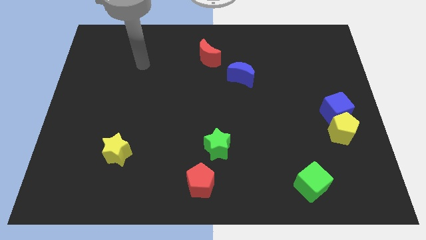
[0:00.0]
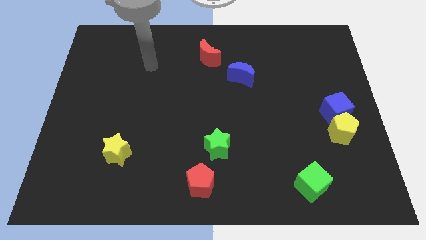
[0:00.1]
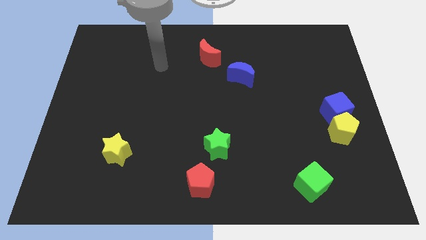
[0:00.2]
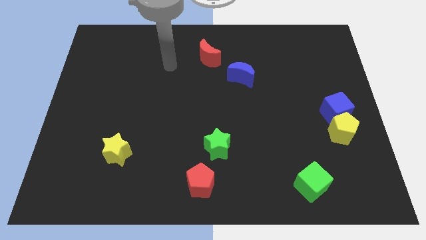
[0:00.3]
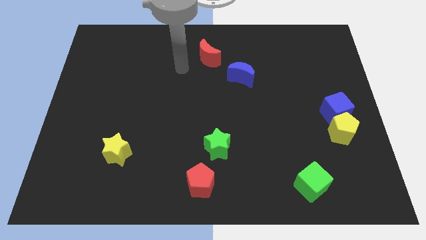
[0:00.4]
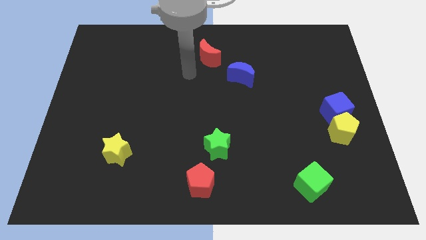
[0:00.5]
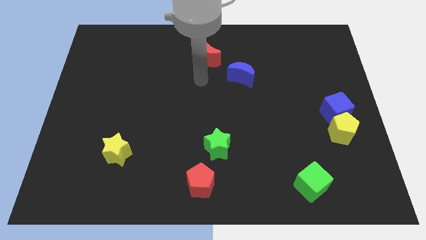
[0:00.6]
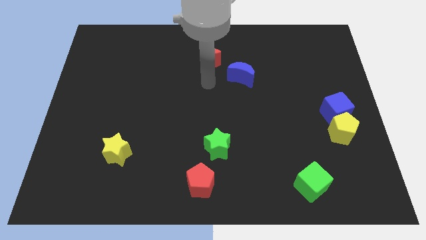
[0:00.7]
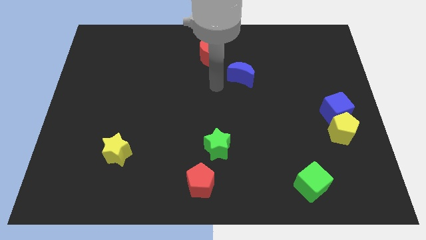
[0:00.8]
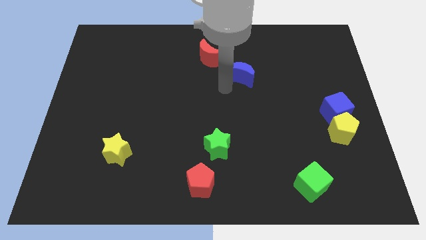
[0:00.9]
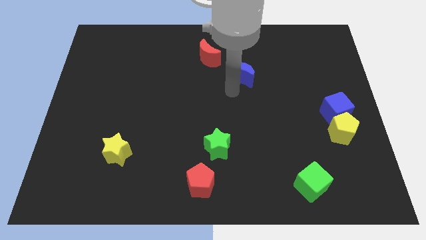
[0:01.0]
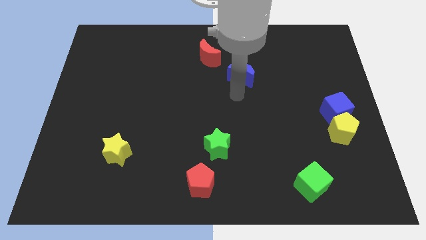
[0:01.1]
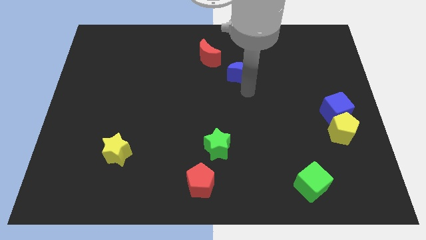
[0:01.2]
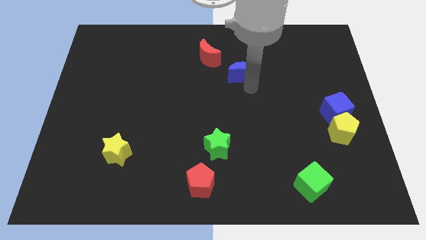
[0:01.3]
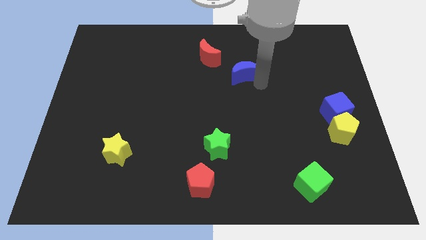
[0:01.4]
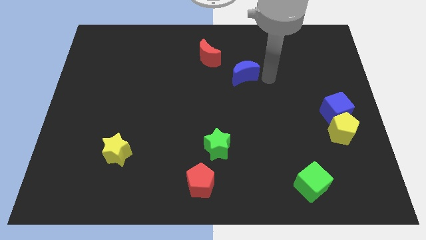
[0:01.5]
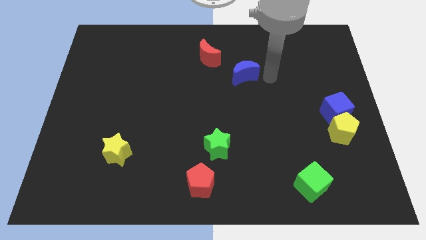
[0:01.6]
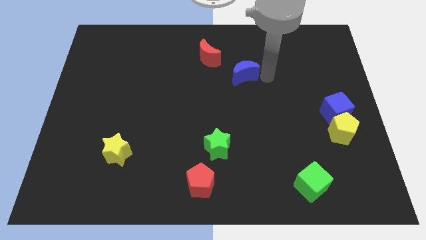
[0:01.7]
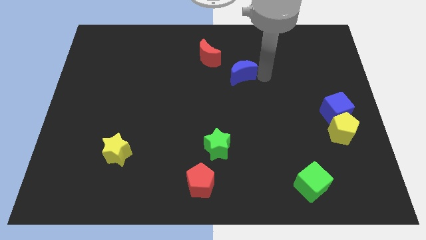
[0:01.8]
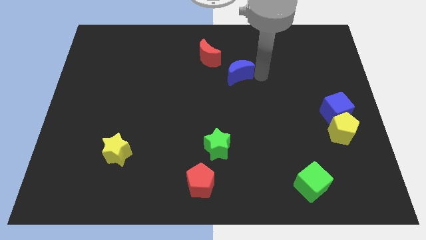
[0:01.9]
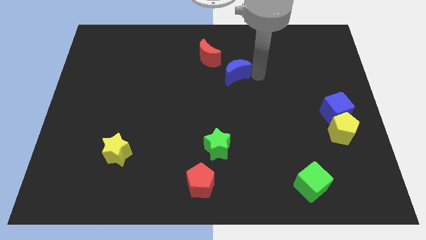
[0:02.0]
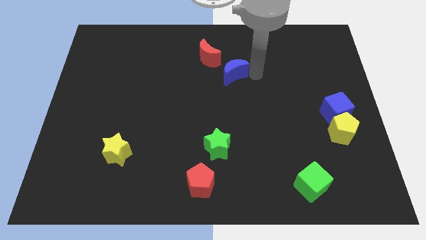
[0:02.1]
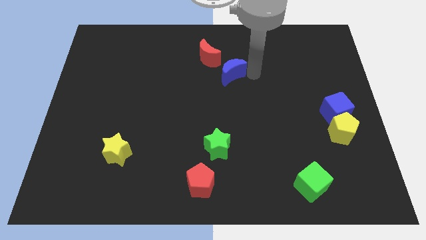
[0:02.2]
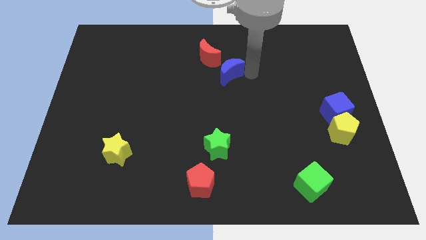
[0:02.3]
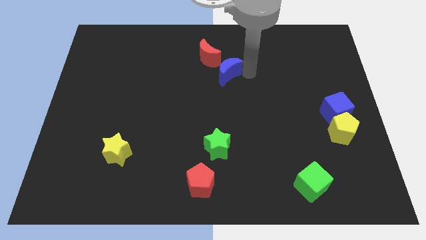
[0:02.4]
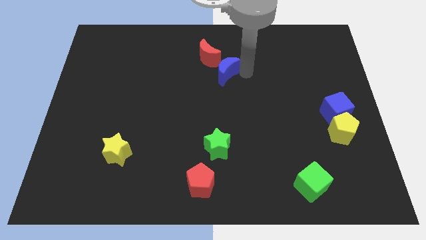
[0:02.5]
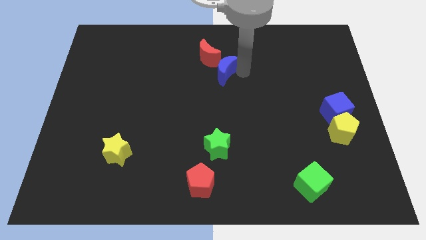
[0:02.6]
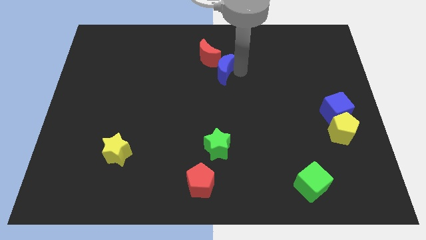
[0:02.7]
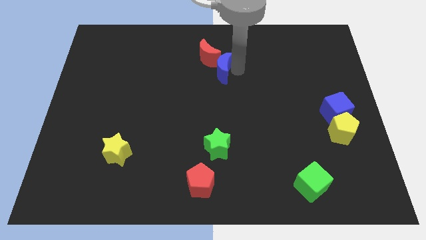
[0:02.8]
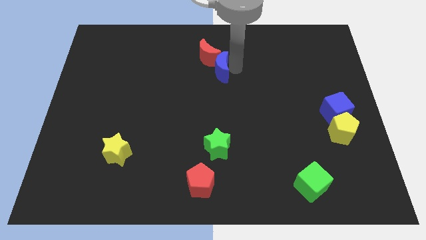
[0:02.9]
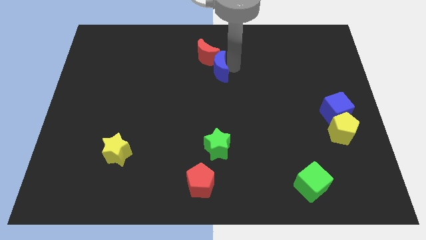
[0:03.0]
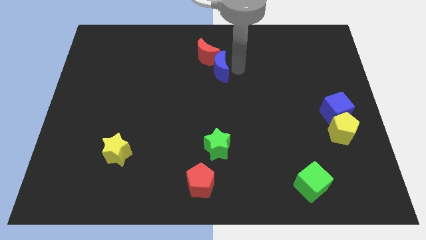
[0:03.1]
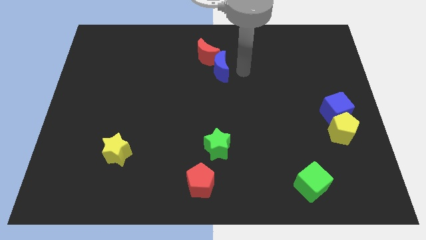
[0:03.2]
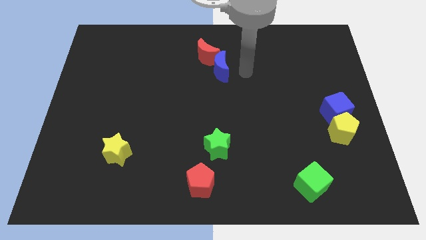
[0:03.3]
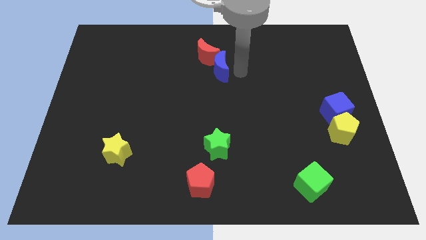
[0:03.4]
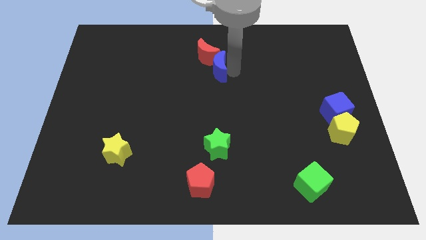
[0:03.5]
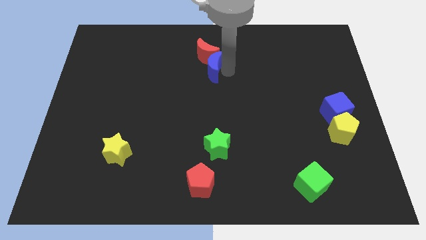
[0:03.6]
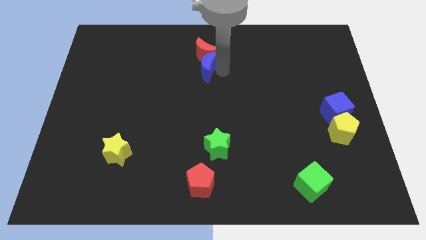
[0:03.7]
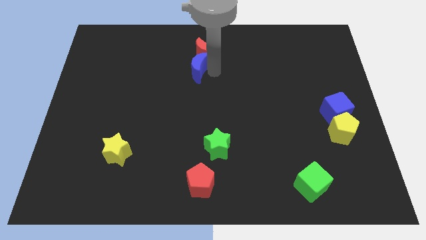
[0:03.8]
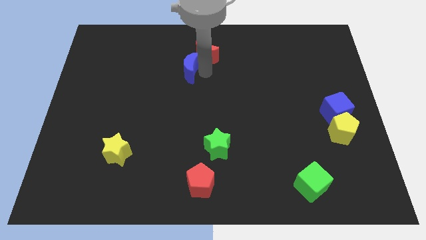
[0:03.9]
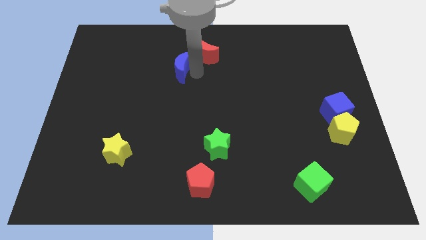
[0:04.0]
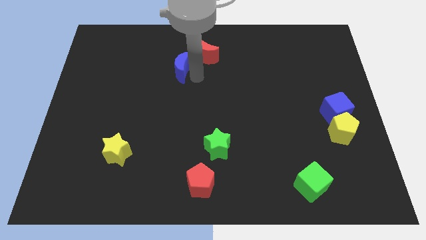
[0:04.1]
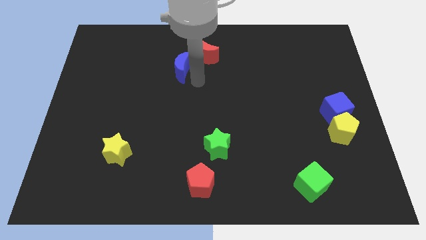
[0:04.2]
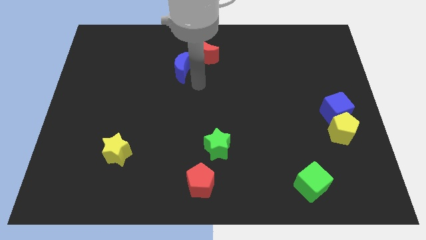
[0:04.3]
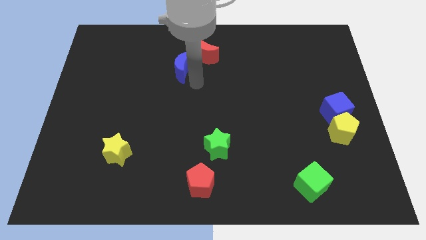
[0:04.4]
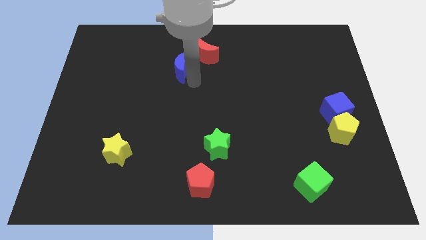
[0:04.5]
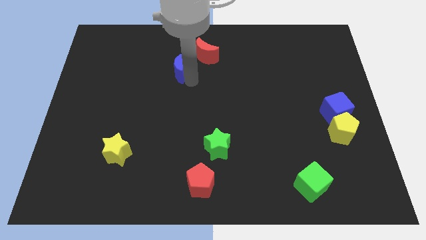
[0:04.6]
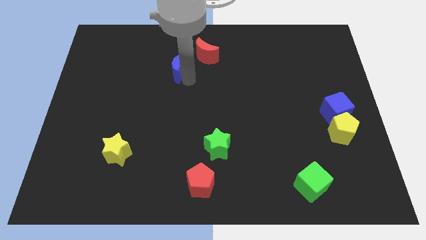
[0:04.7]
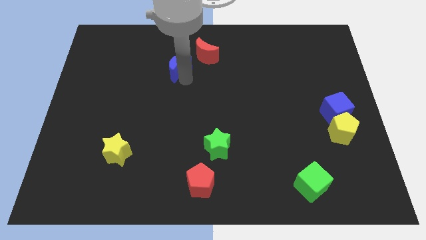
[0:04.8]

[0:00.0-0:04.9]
move the blue moon to the left side of the red moon

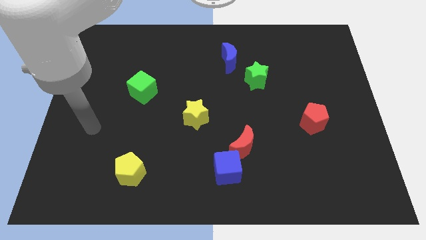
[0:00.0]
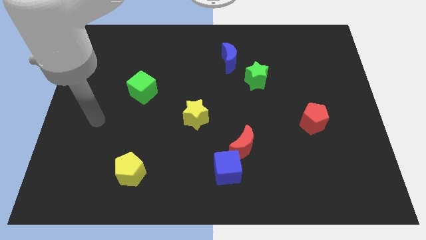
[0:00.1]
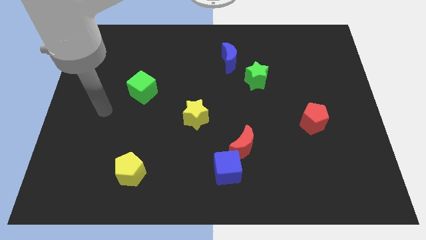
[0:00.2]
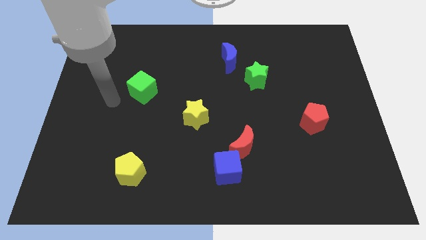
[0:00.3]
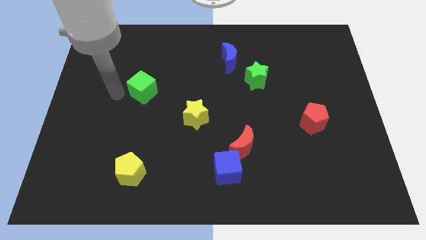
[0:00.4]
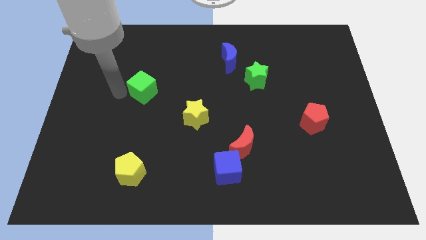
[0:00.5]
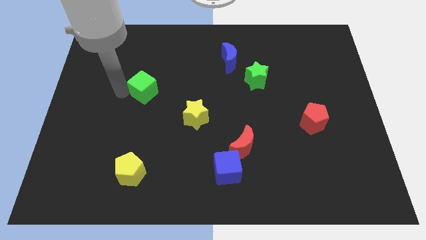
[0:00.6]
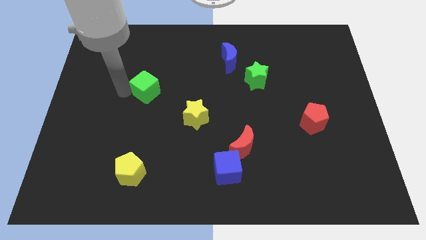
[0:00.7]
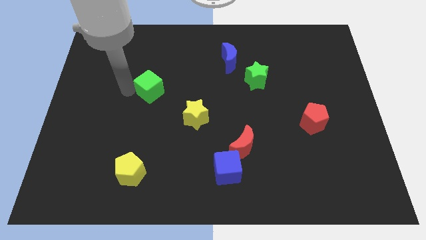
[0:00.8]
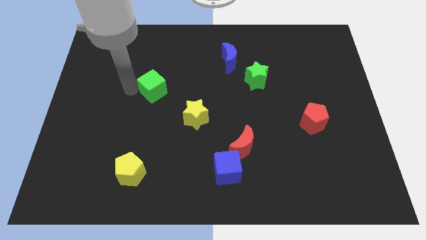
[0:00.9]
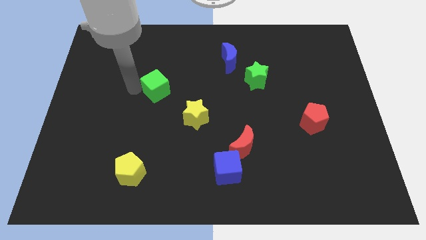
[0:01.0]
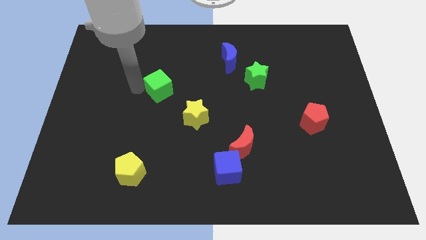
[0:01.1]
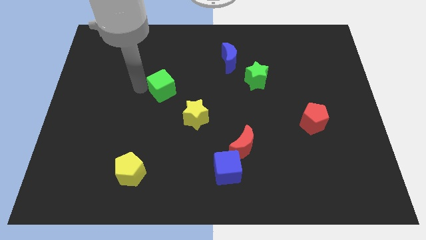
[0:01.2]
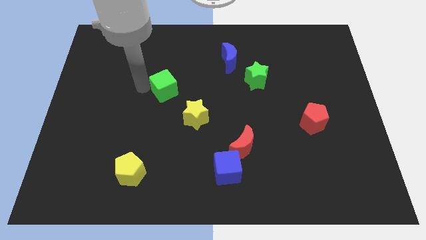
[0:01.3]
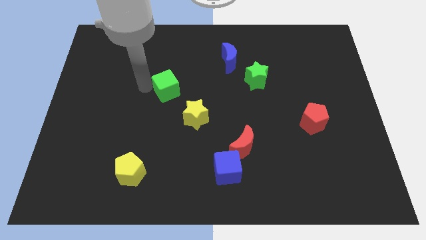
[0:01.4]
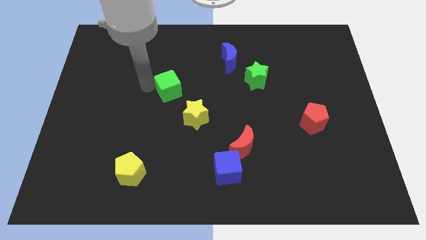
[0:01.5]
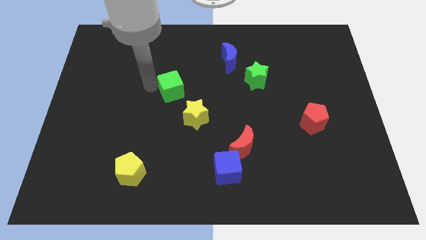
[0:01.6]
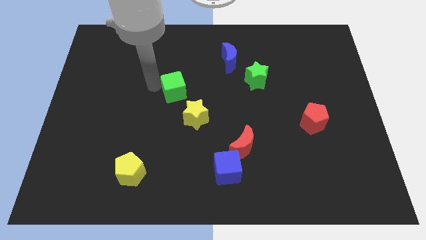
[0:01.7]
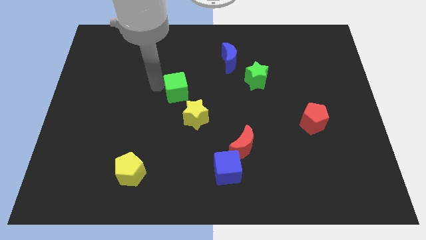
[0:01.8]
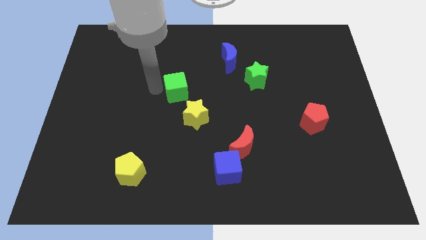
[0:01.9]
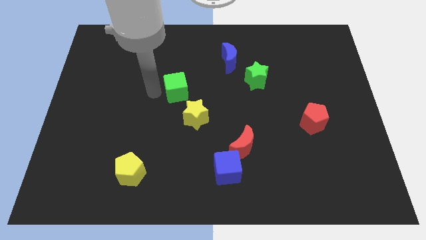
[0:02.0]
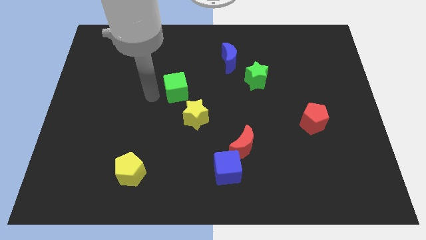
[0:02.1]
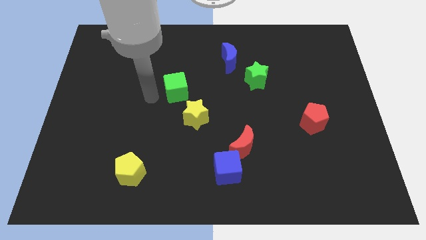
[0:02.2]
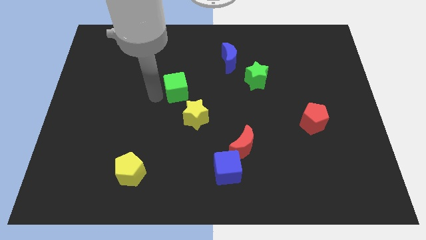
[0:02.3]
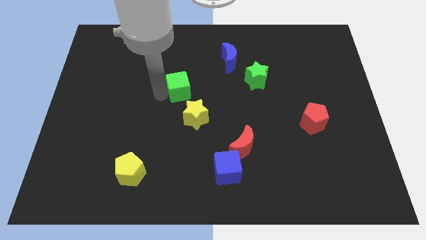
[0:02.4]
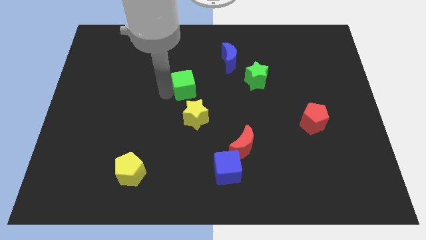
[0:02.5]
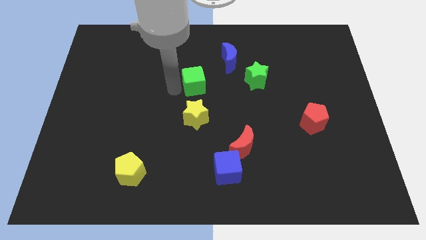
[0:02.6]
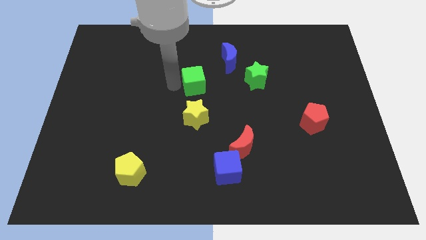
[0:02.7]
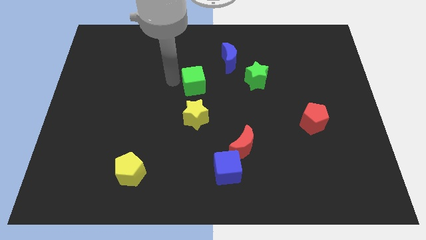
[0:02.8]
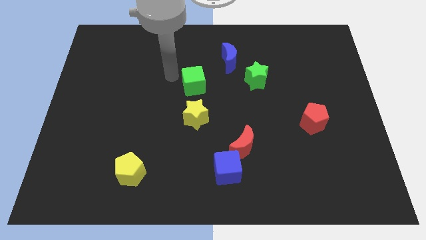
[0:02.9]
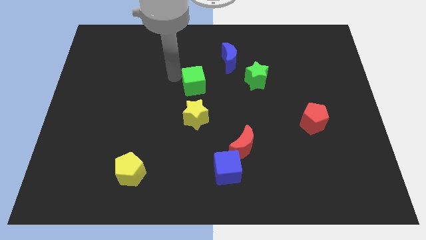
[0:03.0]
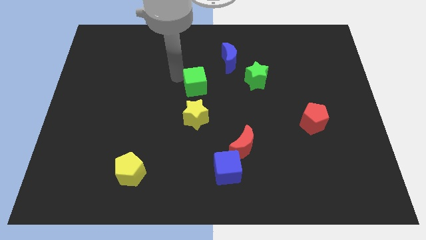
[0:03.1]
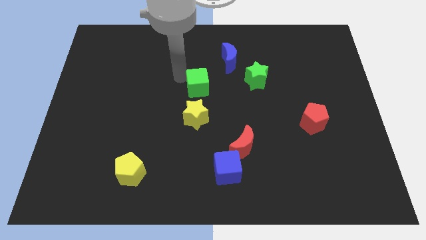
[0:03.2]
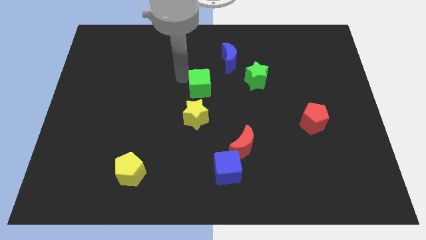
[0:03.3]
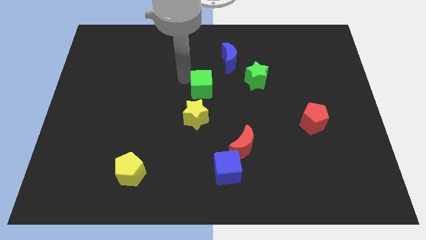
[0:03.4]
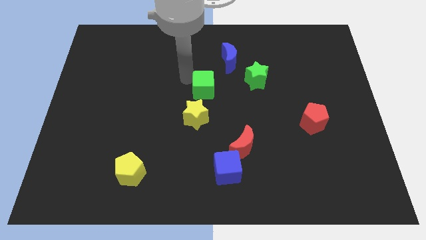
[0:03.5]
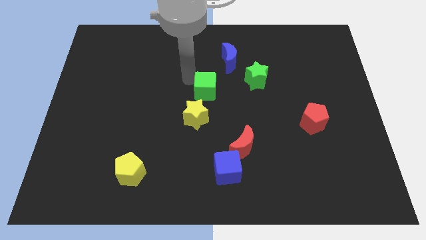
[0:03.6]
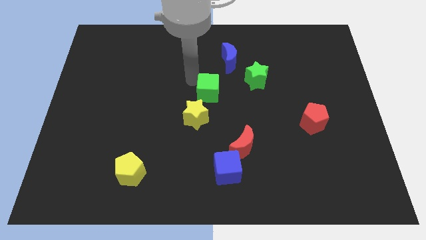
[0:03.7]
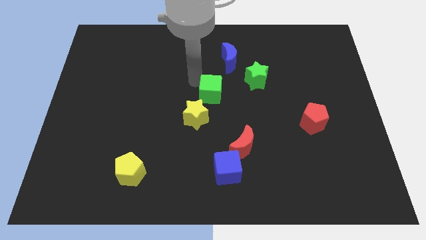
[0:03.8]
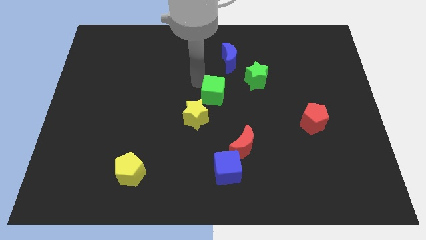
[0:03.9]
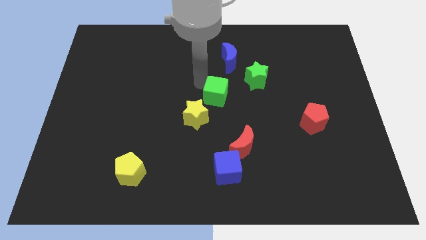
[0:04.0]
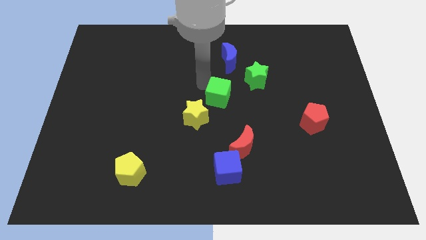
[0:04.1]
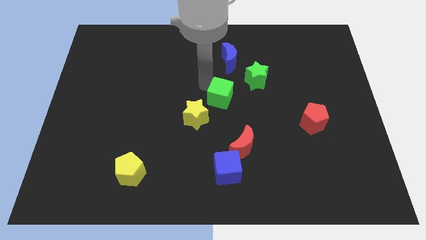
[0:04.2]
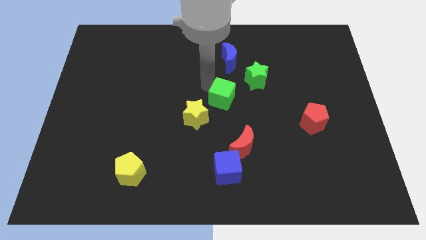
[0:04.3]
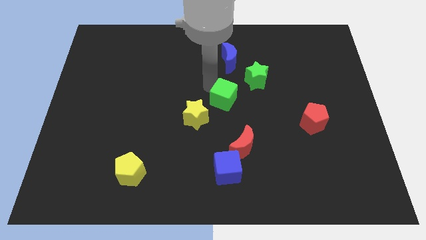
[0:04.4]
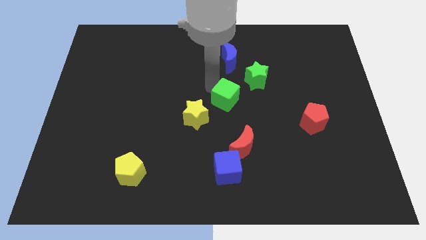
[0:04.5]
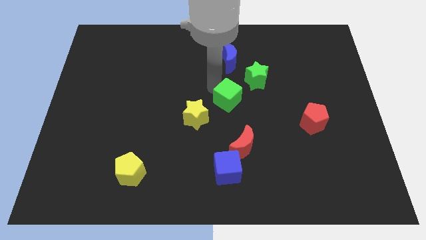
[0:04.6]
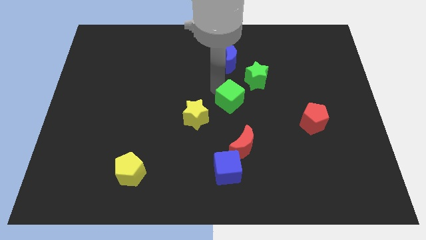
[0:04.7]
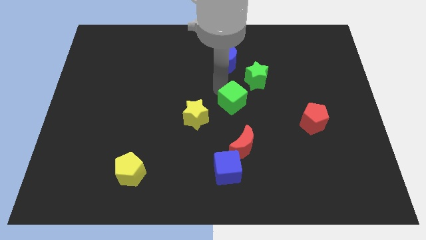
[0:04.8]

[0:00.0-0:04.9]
put the green cube to the right side of the yellow star
